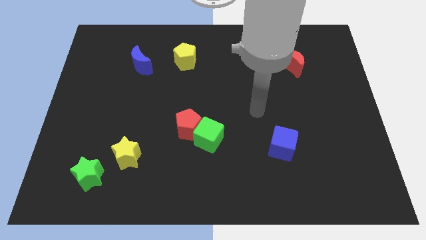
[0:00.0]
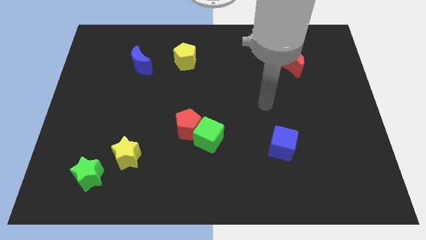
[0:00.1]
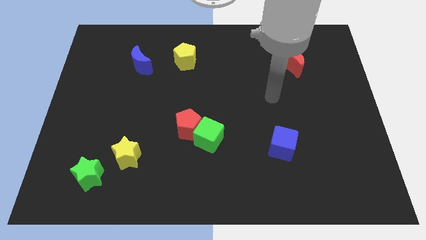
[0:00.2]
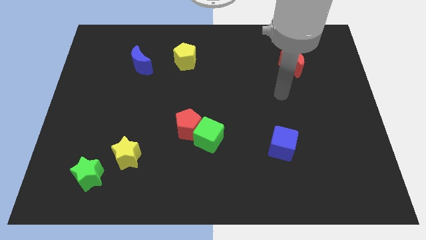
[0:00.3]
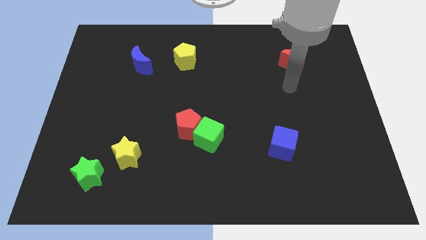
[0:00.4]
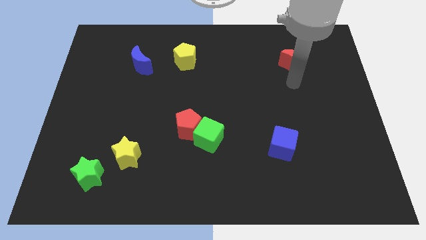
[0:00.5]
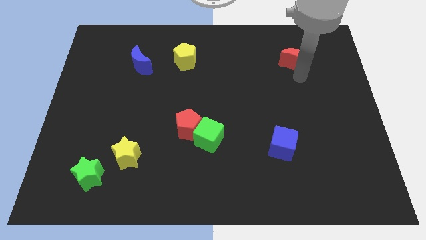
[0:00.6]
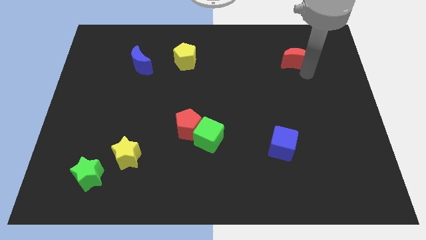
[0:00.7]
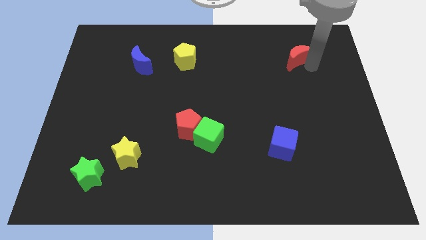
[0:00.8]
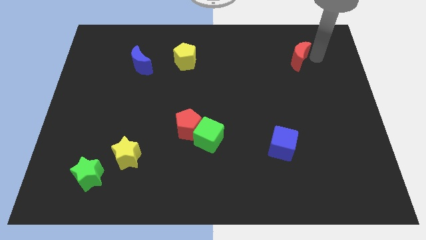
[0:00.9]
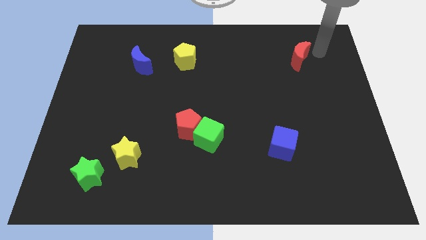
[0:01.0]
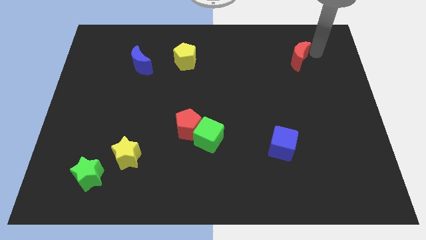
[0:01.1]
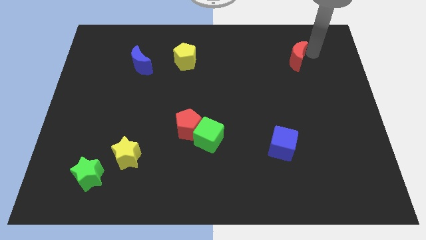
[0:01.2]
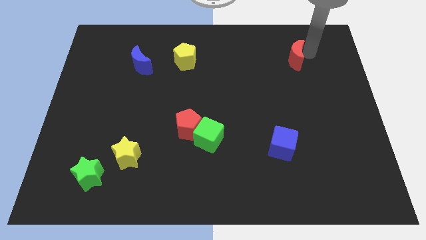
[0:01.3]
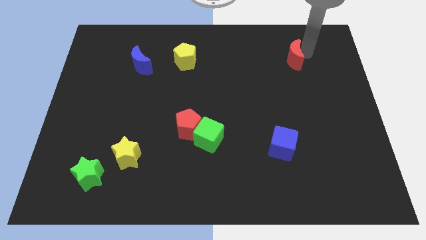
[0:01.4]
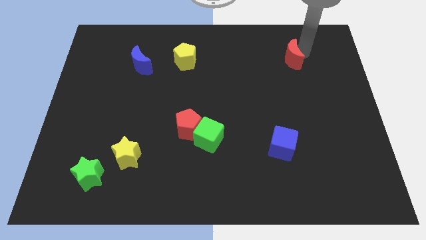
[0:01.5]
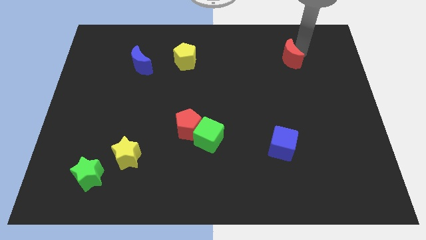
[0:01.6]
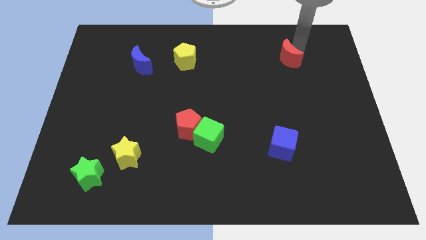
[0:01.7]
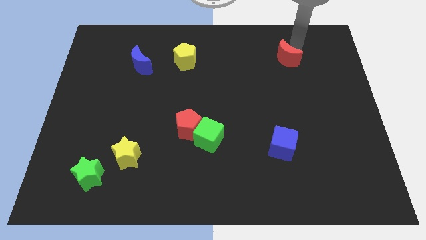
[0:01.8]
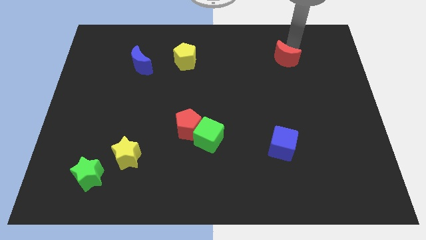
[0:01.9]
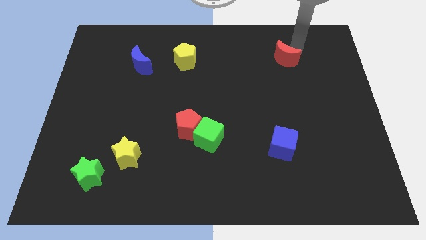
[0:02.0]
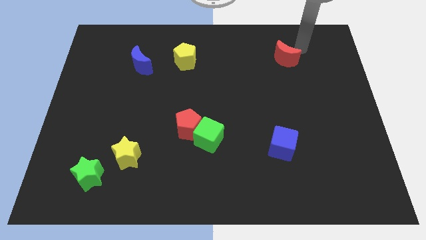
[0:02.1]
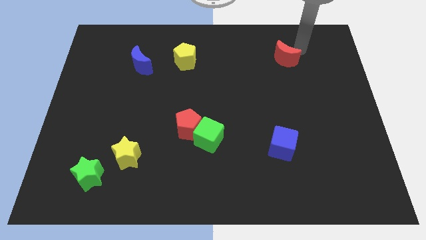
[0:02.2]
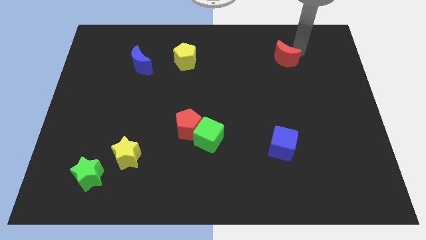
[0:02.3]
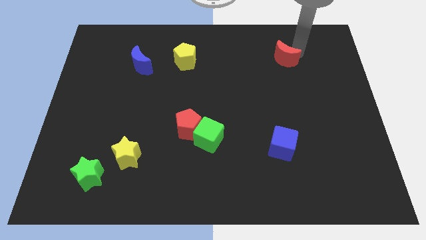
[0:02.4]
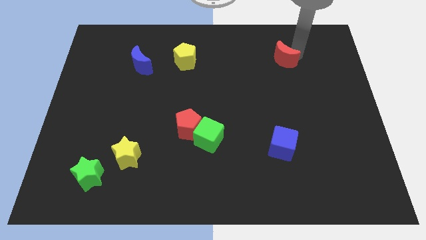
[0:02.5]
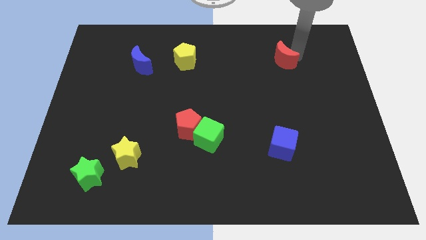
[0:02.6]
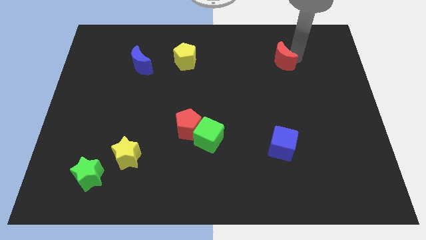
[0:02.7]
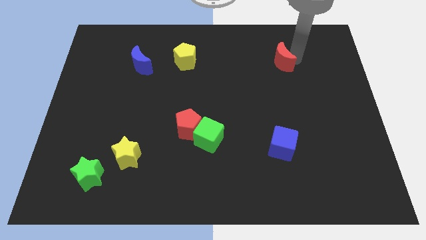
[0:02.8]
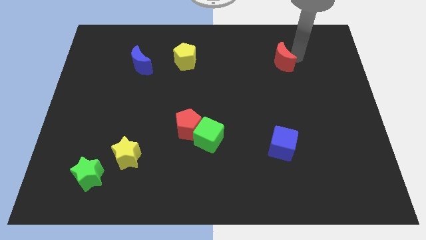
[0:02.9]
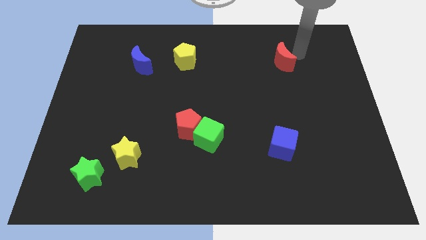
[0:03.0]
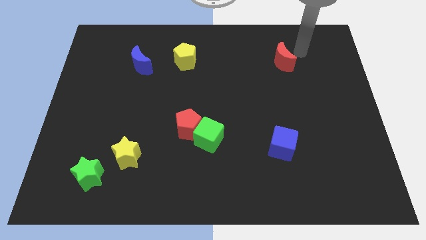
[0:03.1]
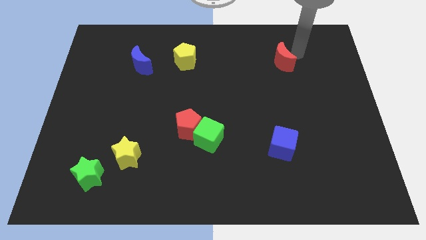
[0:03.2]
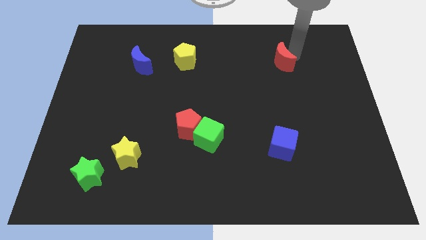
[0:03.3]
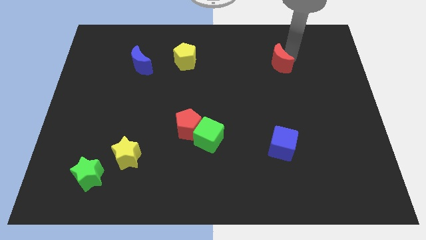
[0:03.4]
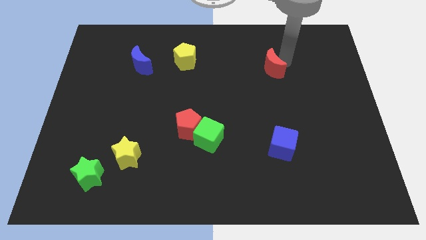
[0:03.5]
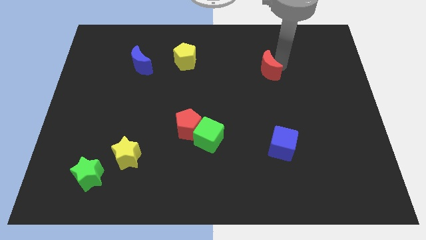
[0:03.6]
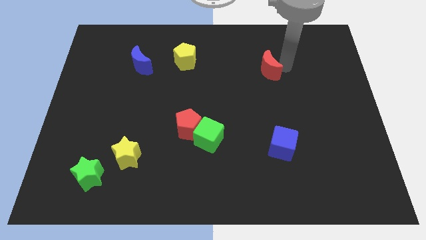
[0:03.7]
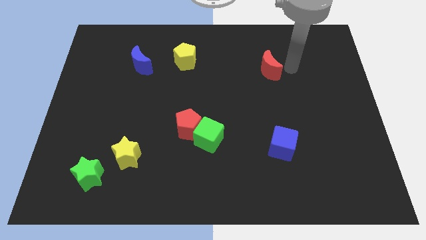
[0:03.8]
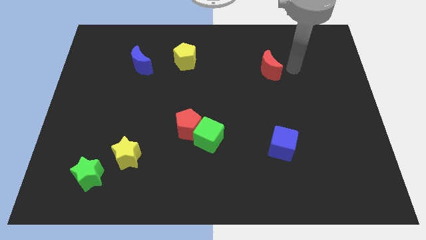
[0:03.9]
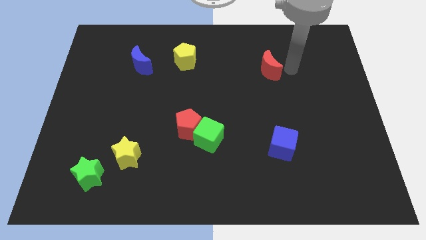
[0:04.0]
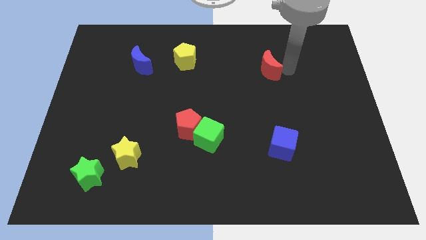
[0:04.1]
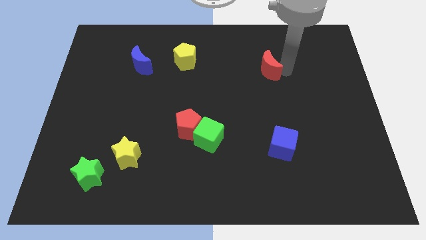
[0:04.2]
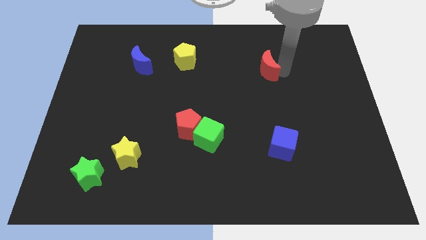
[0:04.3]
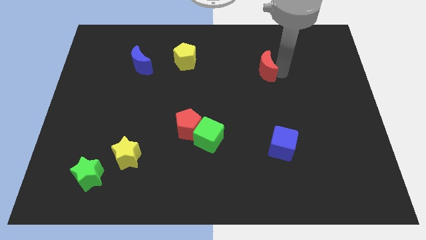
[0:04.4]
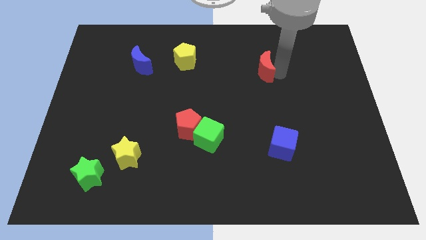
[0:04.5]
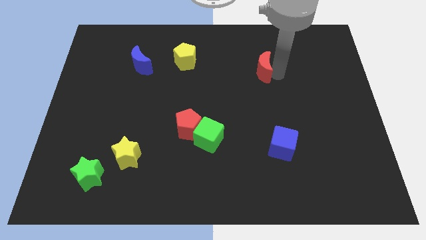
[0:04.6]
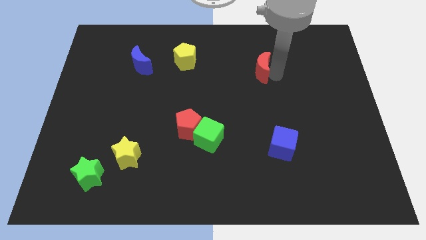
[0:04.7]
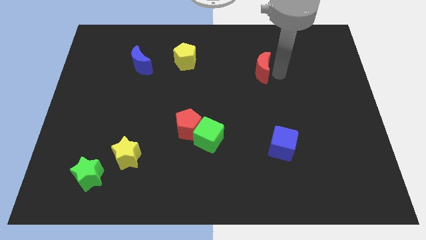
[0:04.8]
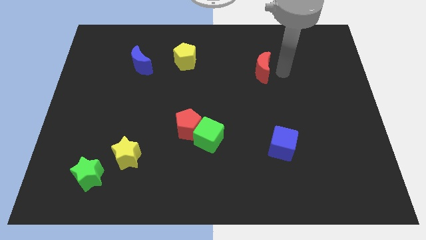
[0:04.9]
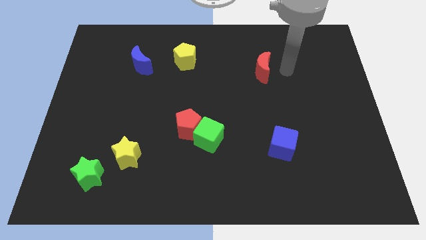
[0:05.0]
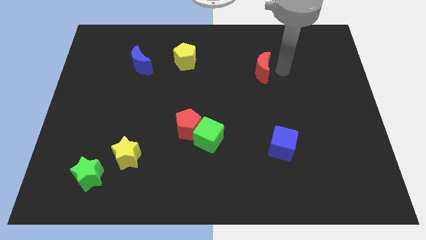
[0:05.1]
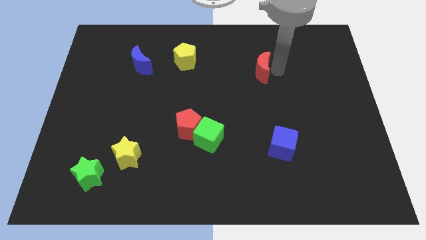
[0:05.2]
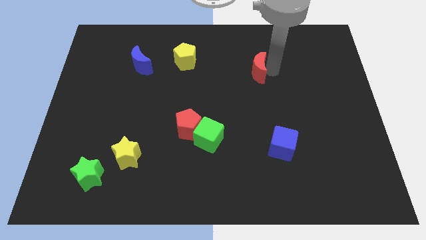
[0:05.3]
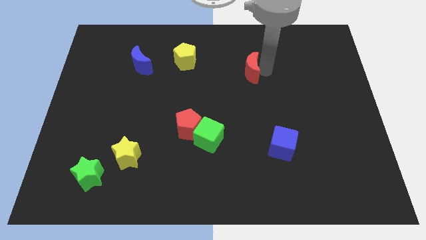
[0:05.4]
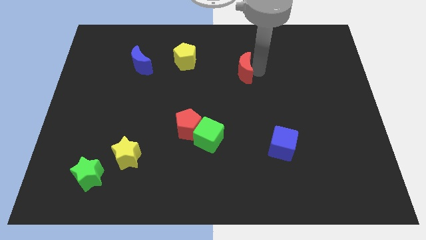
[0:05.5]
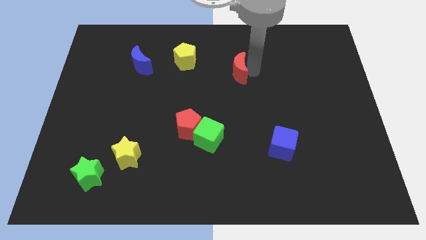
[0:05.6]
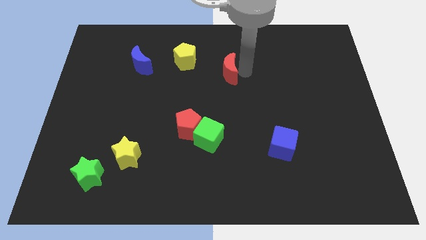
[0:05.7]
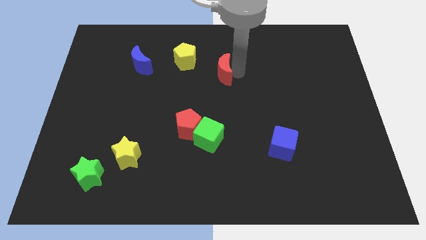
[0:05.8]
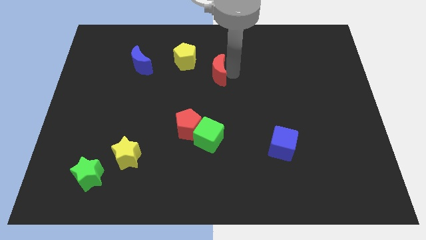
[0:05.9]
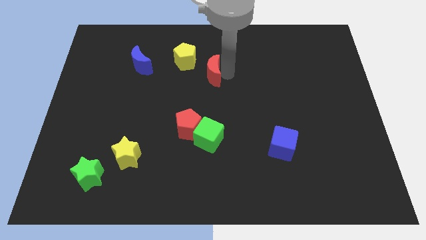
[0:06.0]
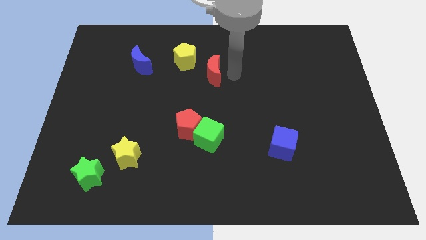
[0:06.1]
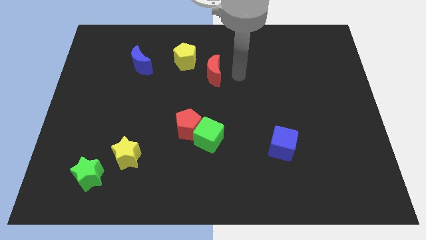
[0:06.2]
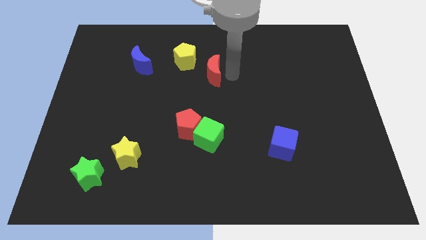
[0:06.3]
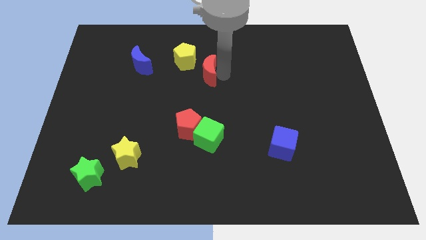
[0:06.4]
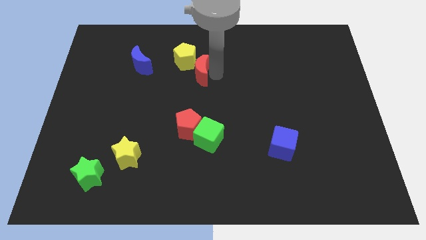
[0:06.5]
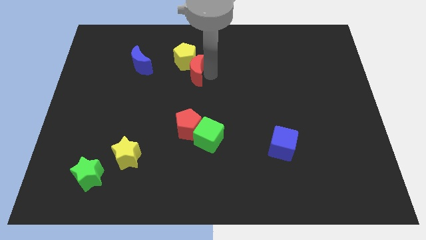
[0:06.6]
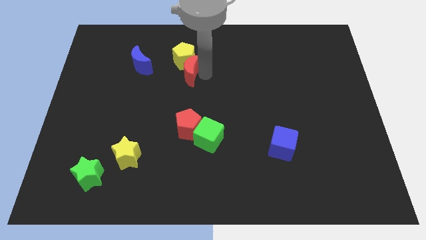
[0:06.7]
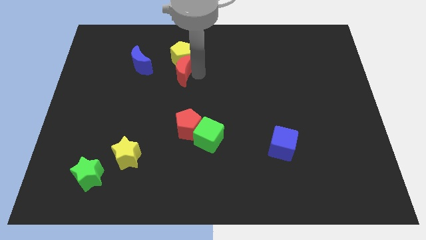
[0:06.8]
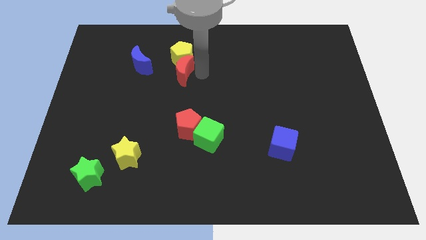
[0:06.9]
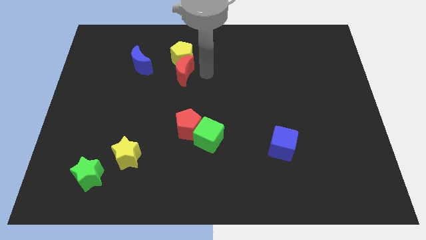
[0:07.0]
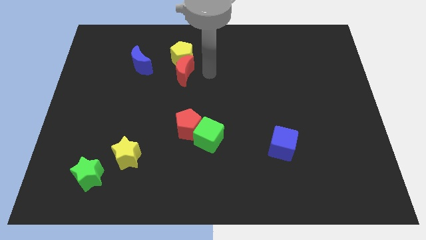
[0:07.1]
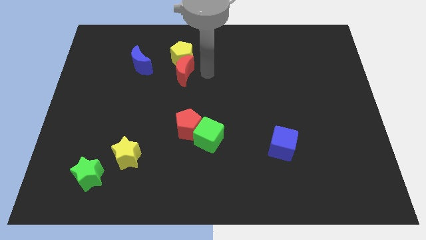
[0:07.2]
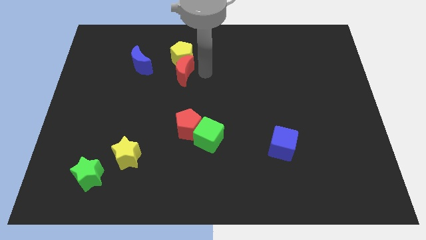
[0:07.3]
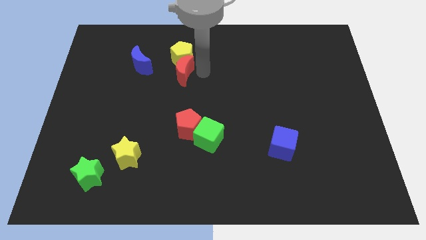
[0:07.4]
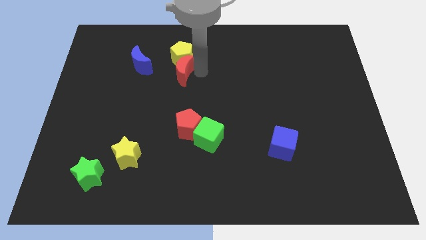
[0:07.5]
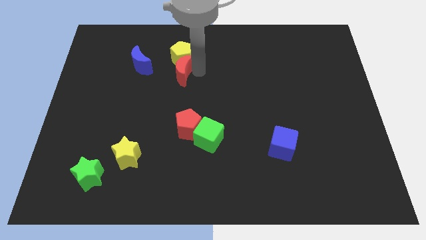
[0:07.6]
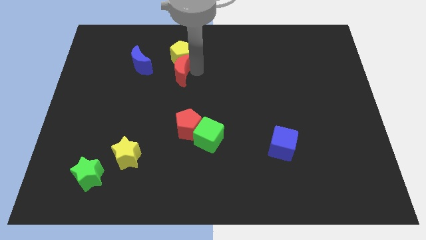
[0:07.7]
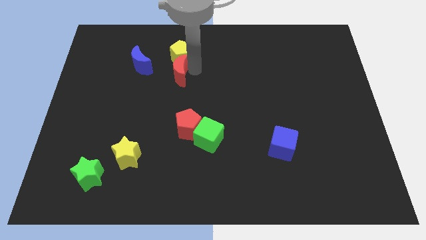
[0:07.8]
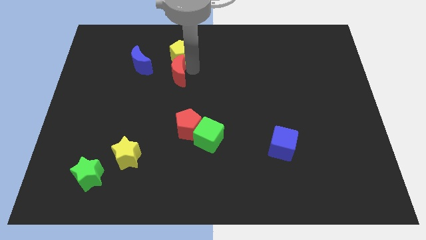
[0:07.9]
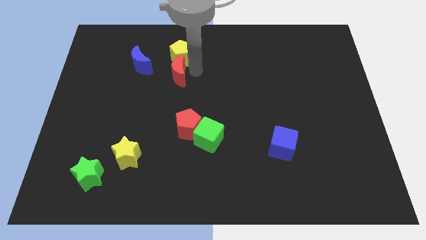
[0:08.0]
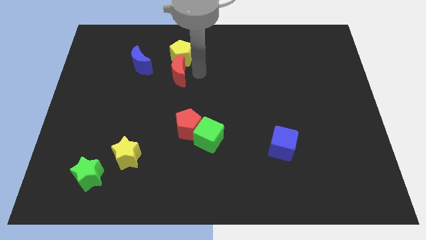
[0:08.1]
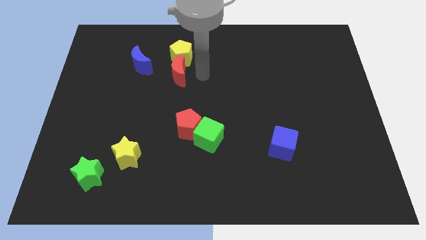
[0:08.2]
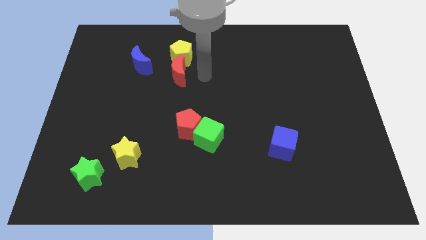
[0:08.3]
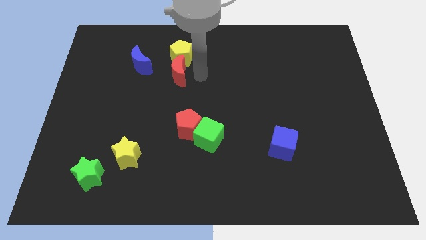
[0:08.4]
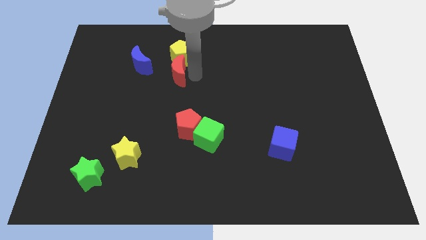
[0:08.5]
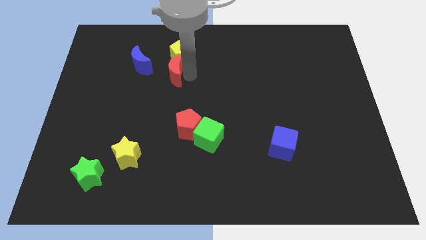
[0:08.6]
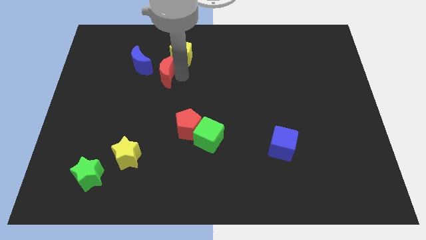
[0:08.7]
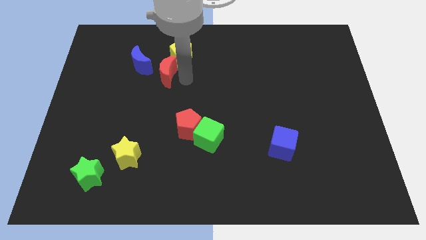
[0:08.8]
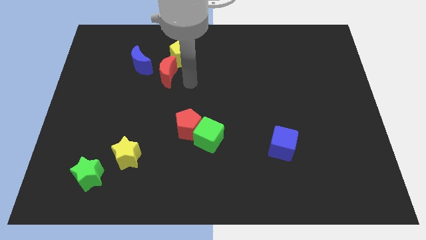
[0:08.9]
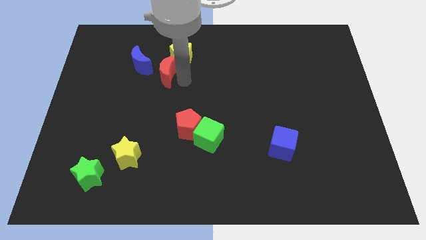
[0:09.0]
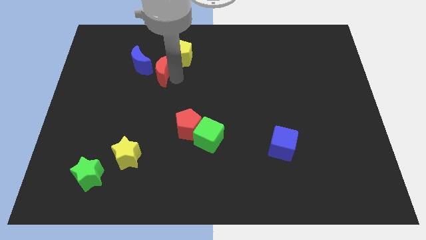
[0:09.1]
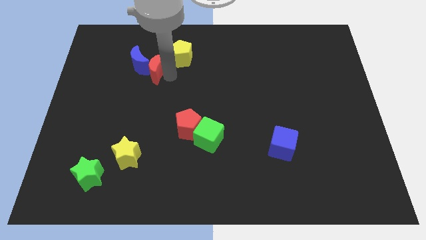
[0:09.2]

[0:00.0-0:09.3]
move the red moon to the blue moon
